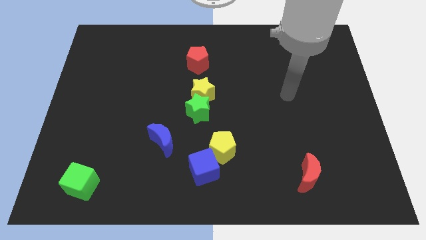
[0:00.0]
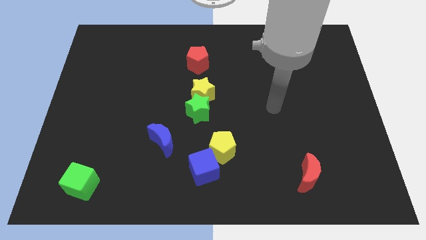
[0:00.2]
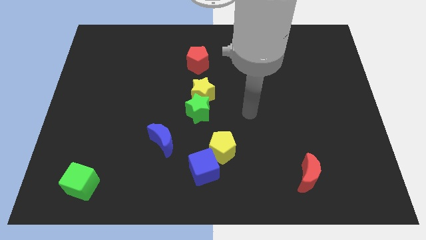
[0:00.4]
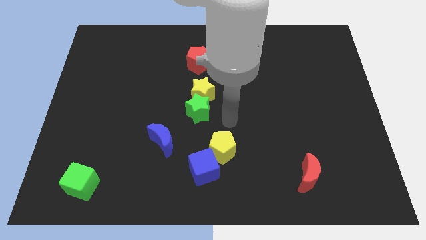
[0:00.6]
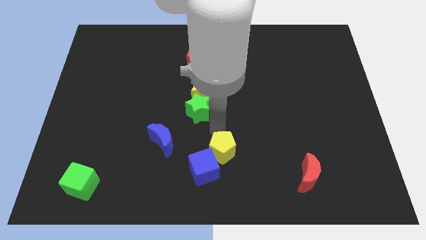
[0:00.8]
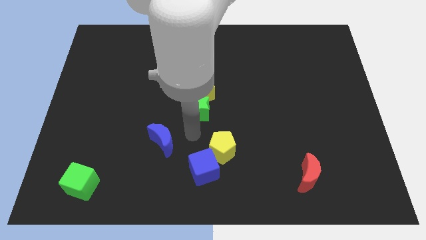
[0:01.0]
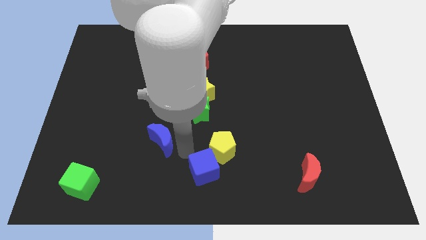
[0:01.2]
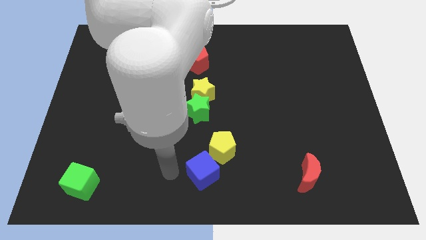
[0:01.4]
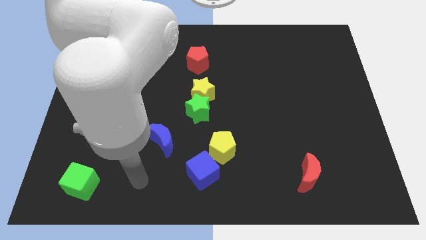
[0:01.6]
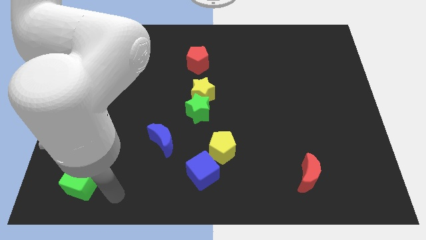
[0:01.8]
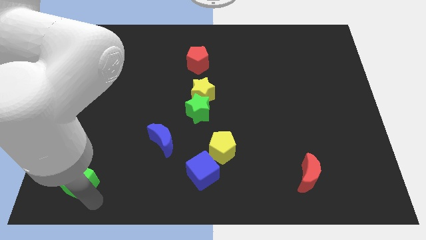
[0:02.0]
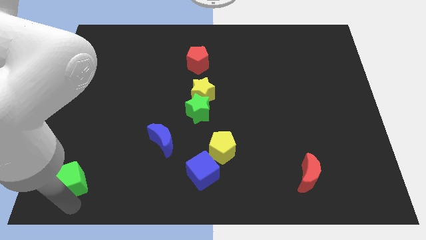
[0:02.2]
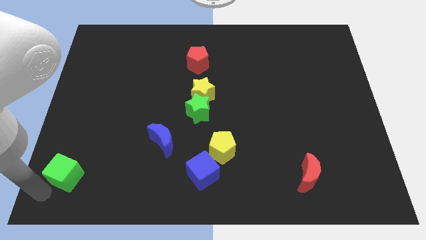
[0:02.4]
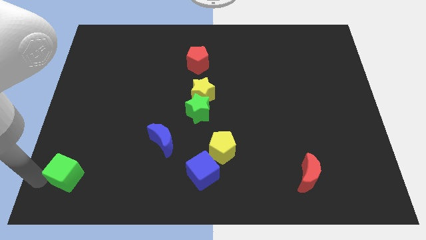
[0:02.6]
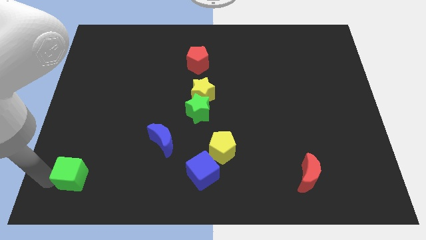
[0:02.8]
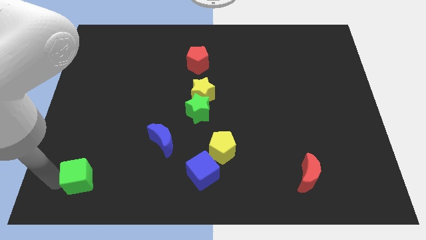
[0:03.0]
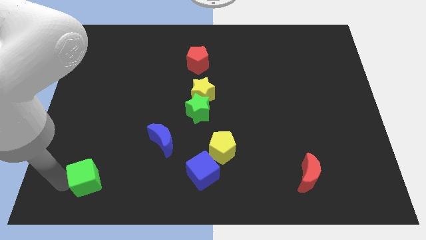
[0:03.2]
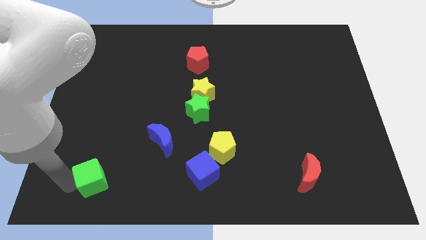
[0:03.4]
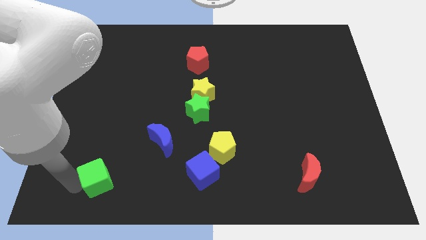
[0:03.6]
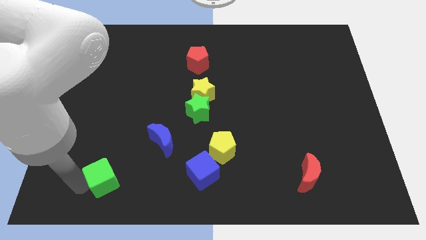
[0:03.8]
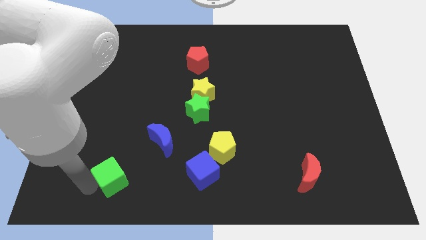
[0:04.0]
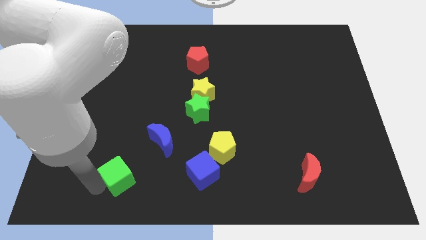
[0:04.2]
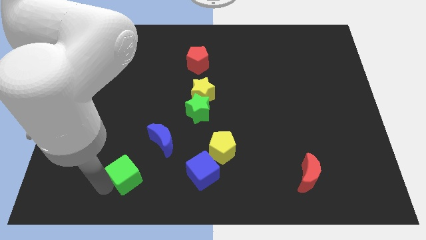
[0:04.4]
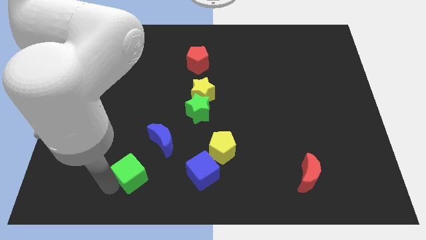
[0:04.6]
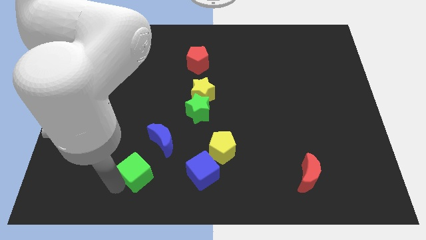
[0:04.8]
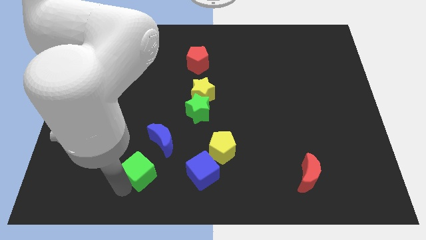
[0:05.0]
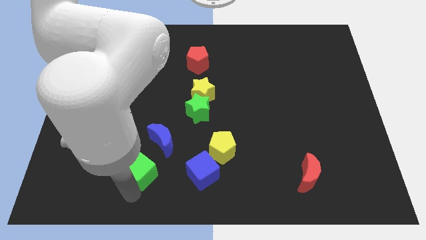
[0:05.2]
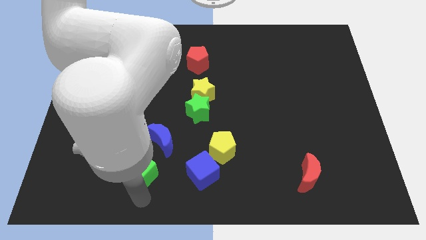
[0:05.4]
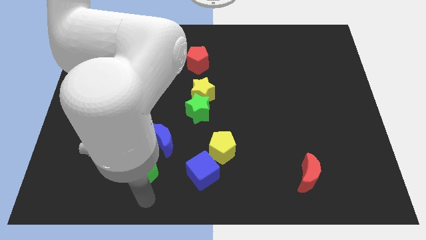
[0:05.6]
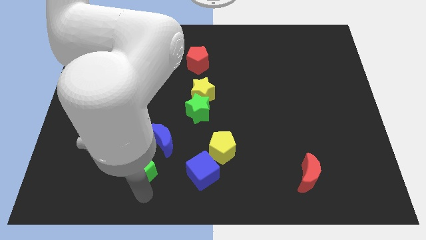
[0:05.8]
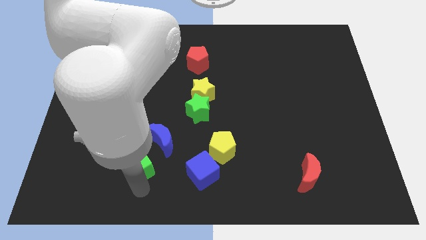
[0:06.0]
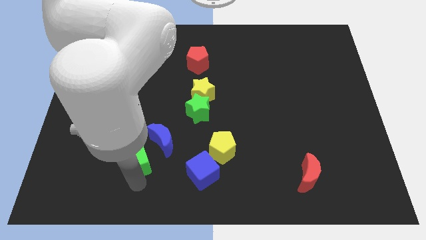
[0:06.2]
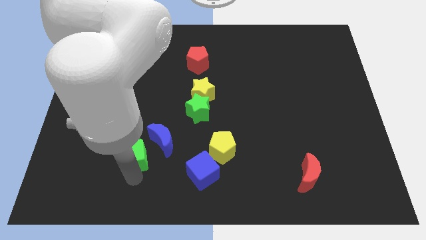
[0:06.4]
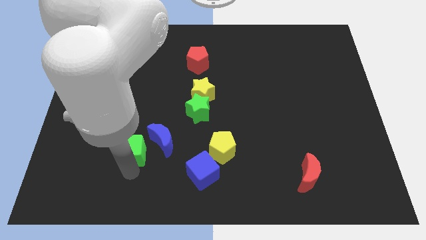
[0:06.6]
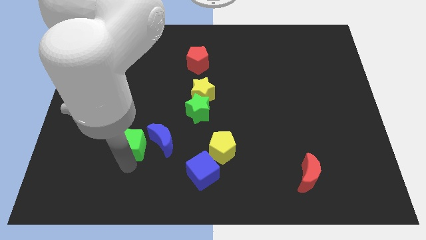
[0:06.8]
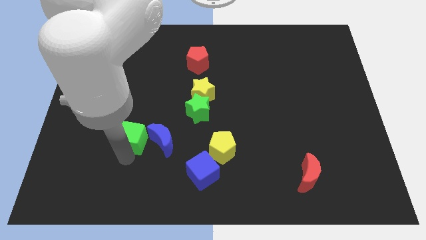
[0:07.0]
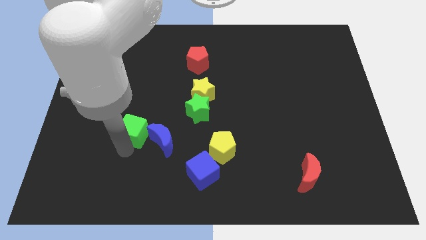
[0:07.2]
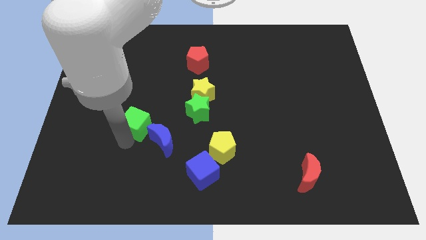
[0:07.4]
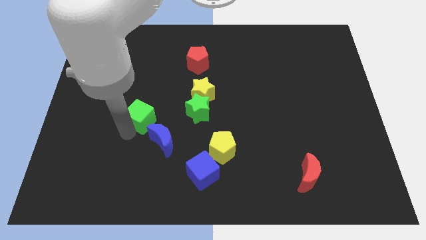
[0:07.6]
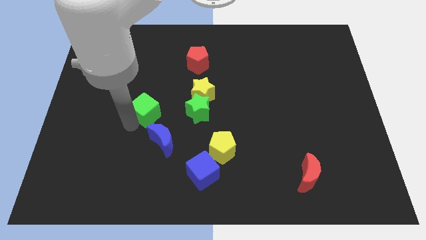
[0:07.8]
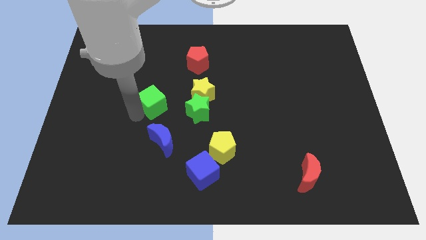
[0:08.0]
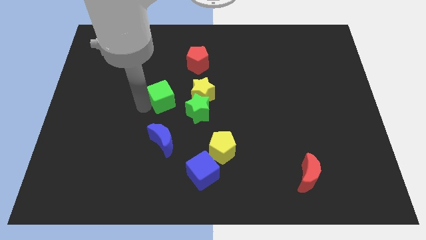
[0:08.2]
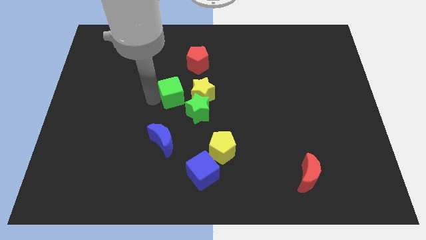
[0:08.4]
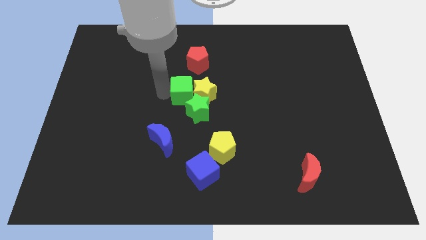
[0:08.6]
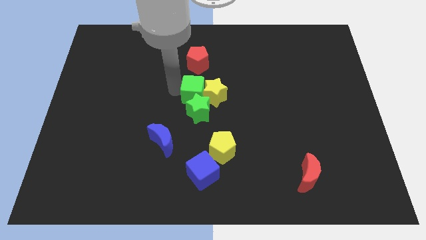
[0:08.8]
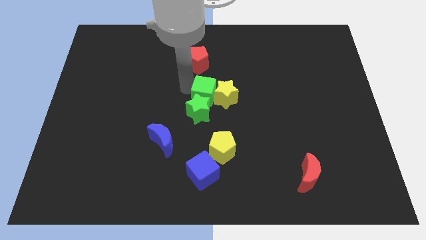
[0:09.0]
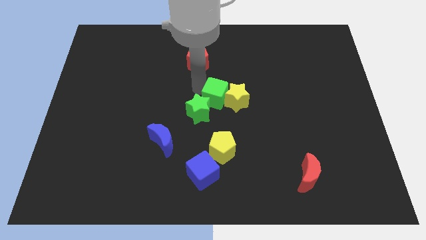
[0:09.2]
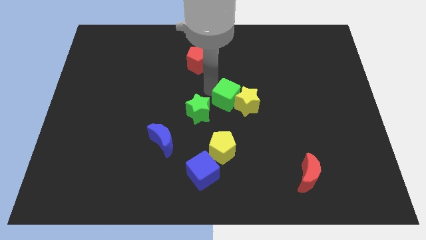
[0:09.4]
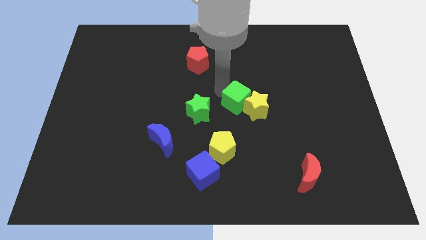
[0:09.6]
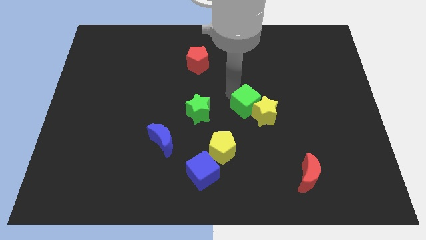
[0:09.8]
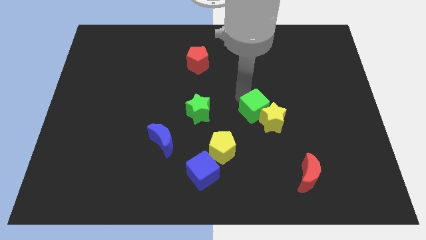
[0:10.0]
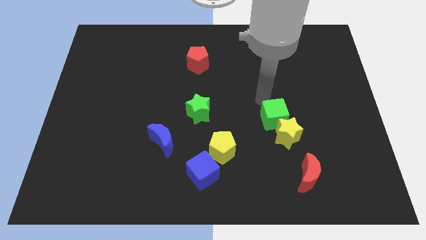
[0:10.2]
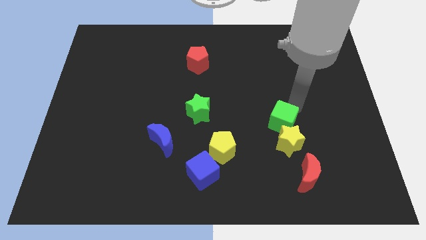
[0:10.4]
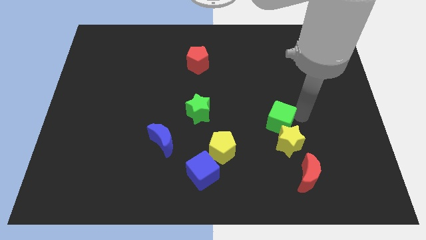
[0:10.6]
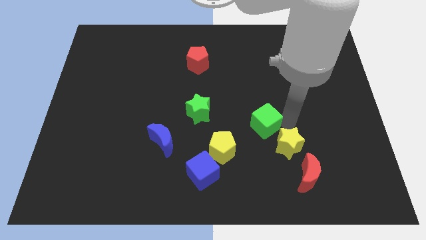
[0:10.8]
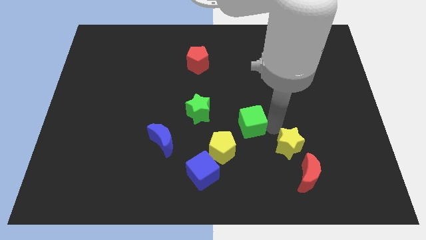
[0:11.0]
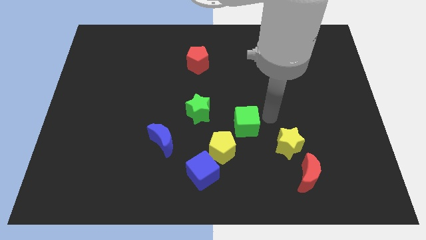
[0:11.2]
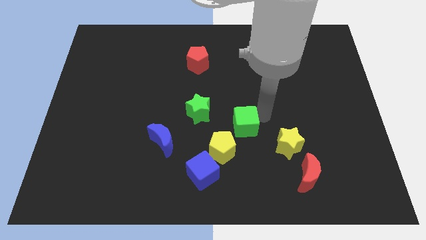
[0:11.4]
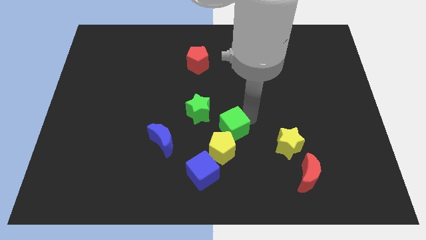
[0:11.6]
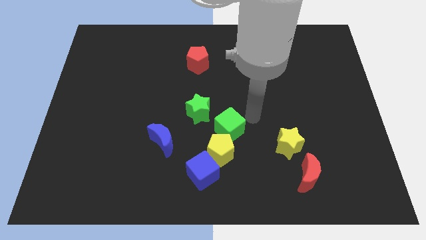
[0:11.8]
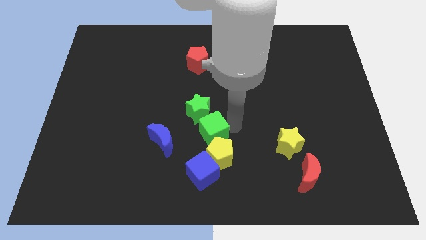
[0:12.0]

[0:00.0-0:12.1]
move the green cube to the top left of the yellow pentagon

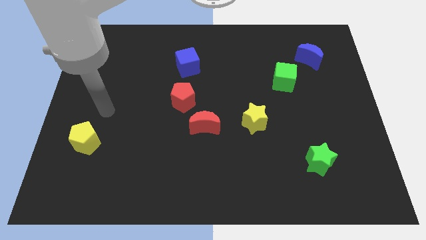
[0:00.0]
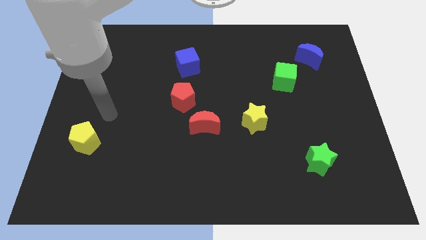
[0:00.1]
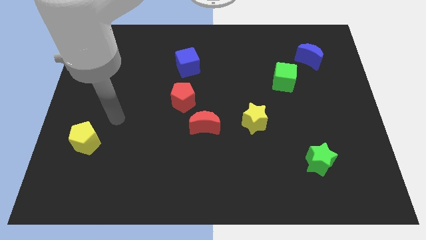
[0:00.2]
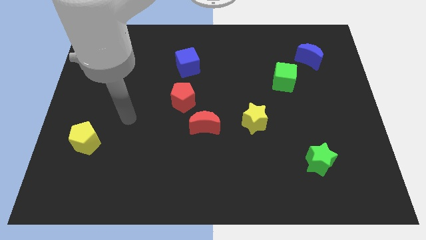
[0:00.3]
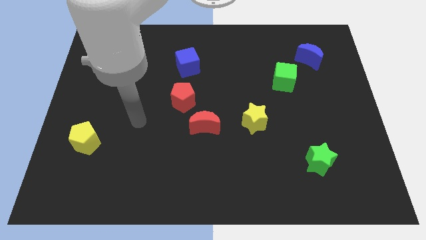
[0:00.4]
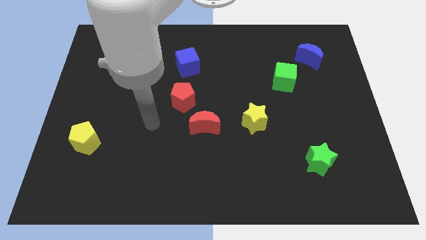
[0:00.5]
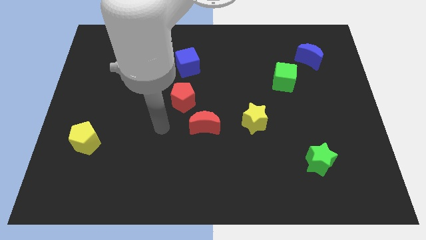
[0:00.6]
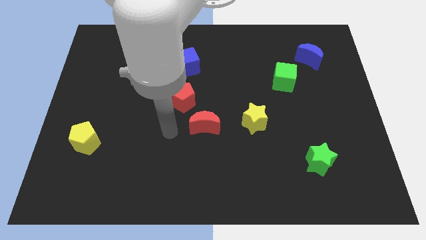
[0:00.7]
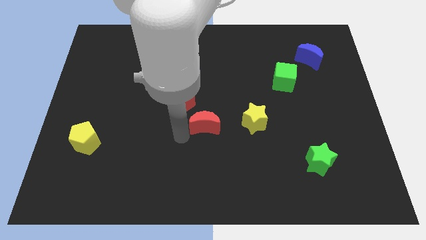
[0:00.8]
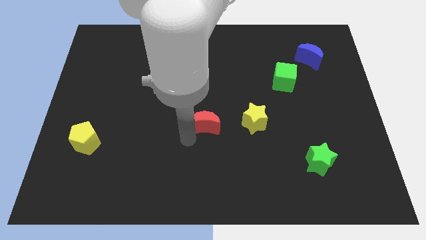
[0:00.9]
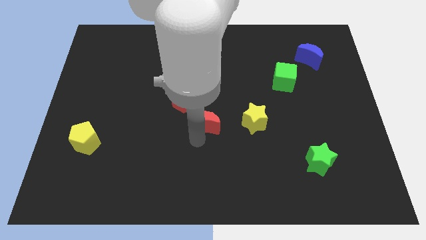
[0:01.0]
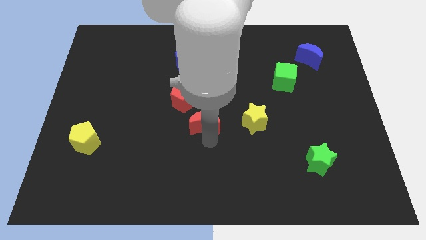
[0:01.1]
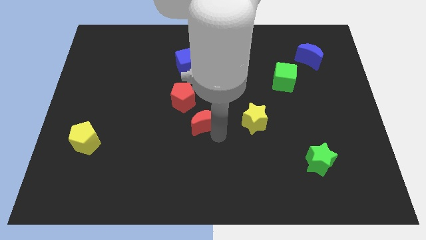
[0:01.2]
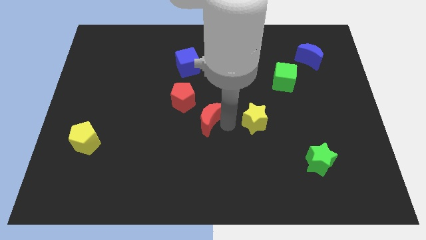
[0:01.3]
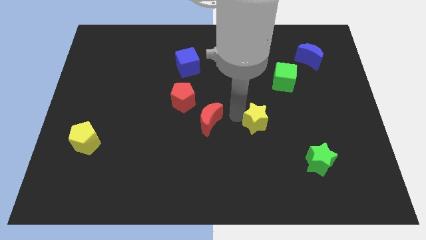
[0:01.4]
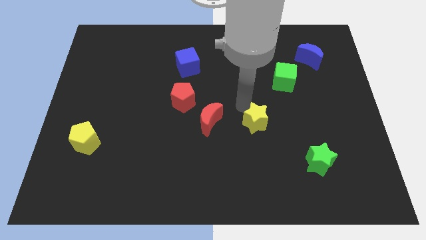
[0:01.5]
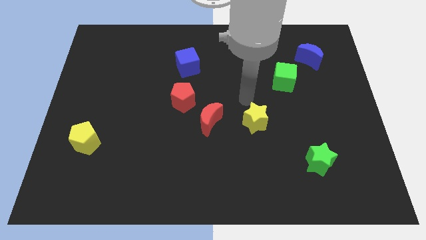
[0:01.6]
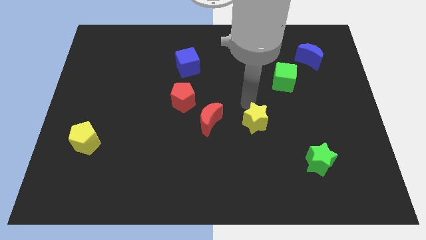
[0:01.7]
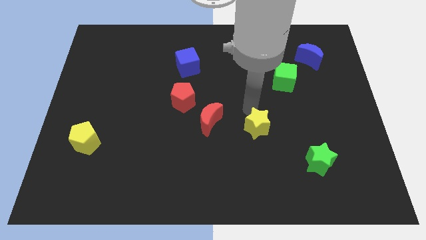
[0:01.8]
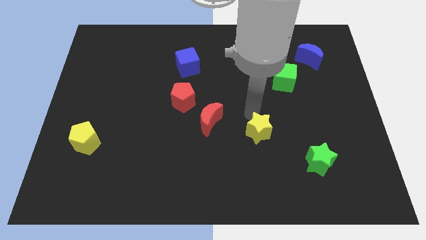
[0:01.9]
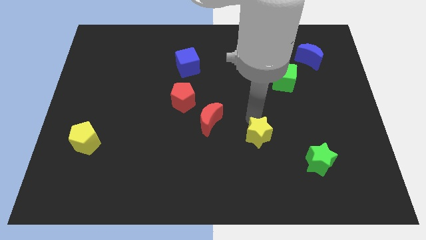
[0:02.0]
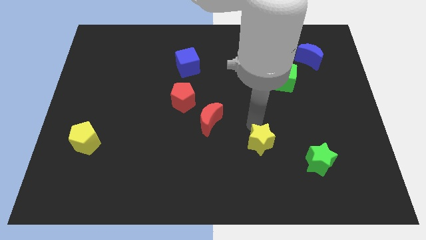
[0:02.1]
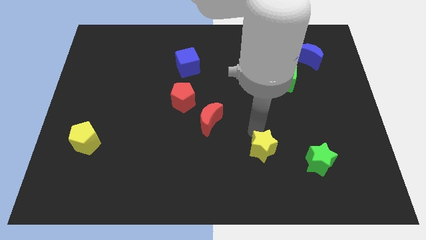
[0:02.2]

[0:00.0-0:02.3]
put the yellow star to the left side of the green star
